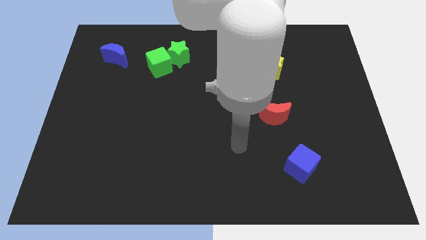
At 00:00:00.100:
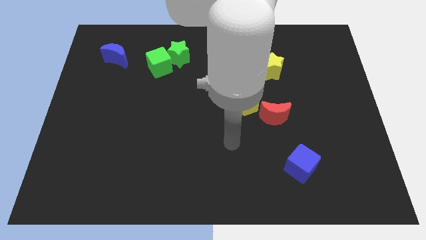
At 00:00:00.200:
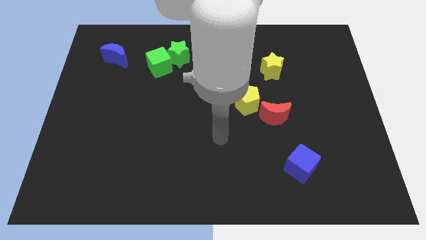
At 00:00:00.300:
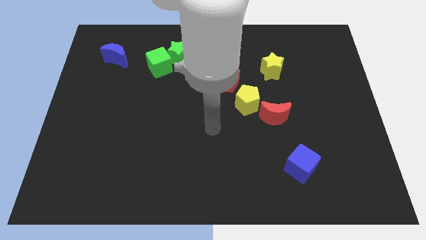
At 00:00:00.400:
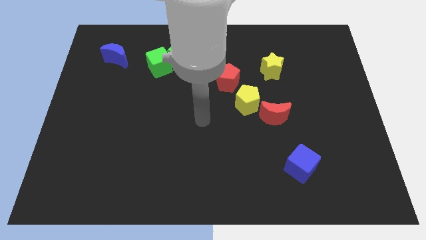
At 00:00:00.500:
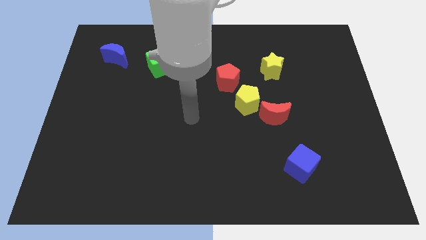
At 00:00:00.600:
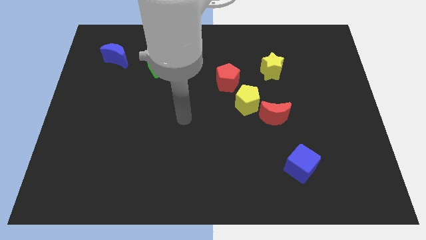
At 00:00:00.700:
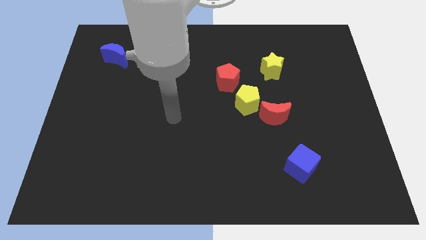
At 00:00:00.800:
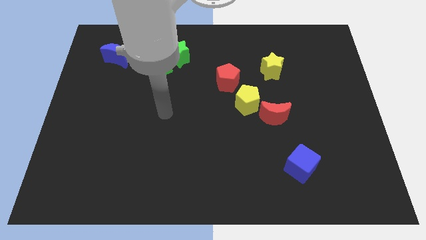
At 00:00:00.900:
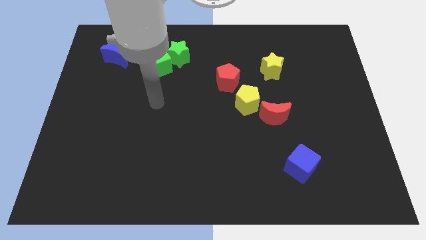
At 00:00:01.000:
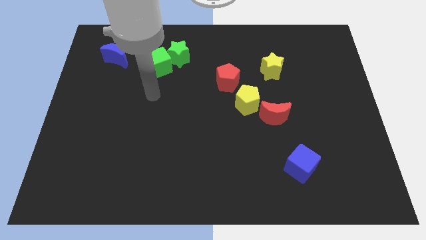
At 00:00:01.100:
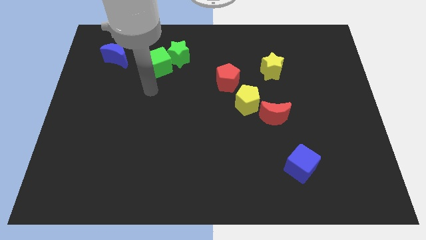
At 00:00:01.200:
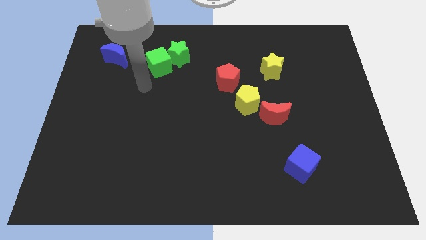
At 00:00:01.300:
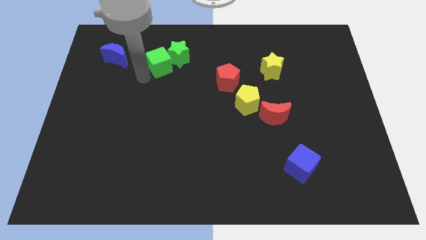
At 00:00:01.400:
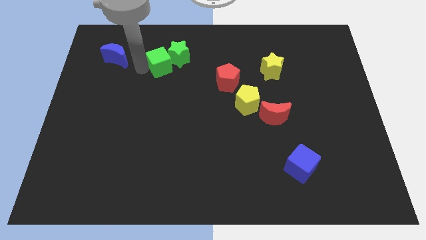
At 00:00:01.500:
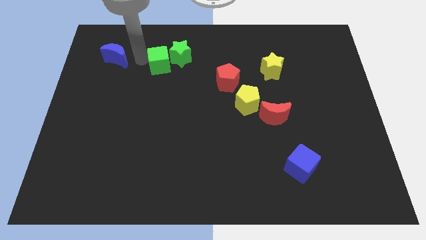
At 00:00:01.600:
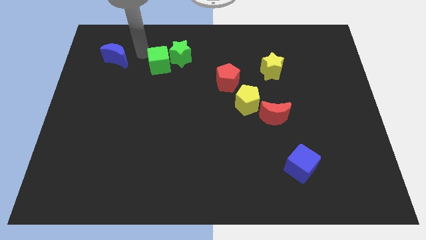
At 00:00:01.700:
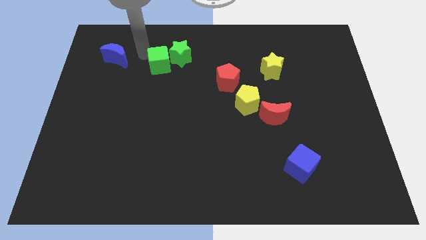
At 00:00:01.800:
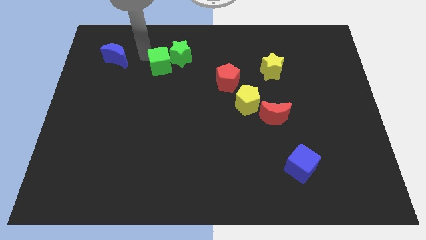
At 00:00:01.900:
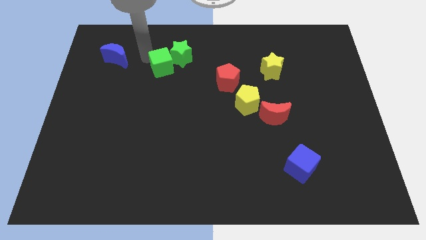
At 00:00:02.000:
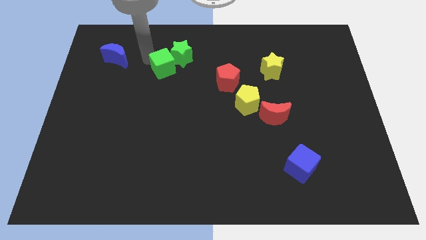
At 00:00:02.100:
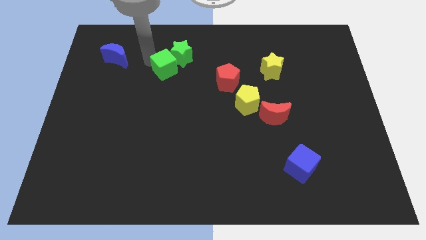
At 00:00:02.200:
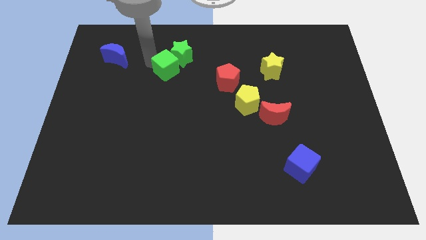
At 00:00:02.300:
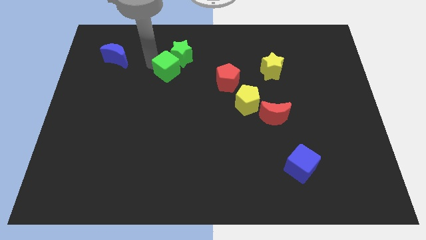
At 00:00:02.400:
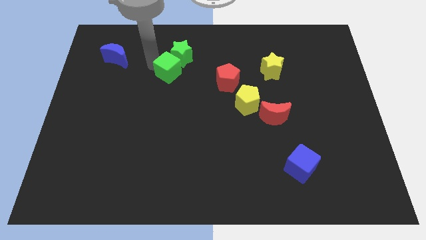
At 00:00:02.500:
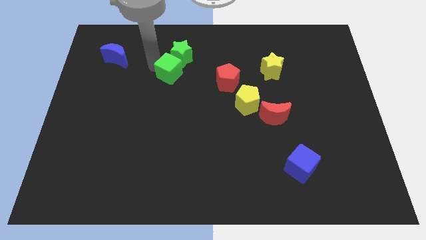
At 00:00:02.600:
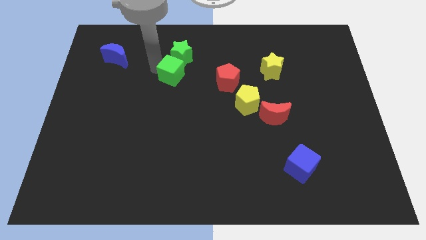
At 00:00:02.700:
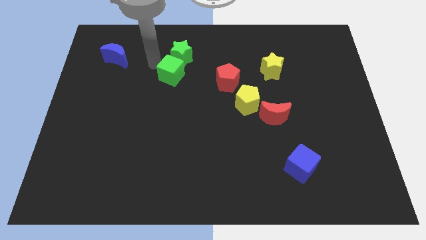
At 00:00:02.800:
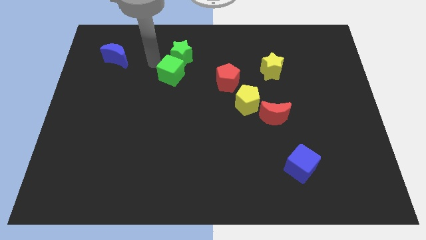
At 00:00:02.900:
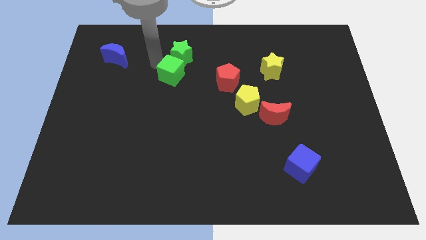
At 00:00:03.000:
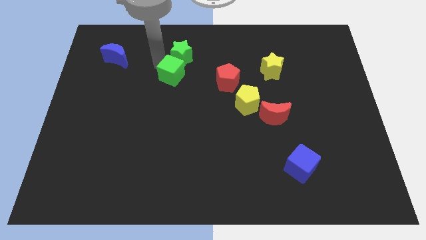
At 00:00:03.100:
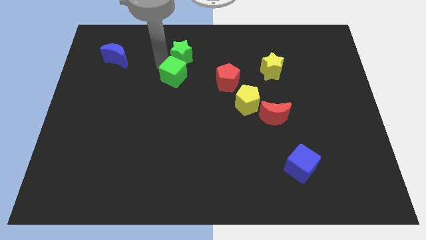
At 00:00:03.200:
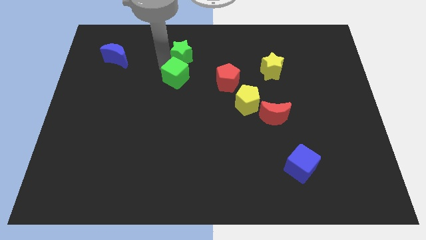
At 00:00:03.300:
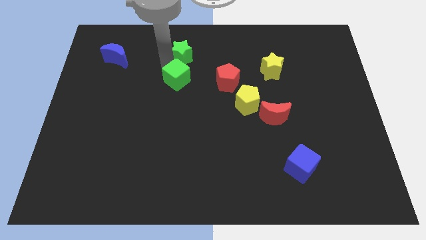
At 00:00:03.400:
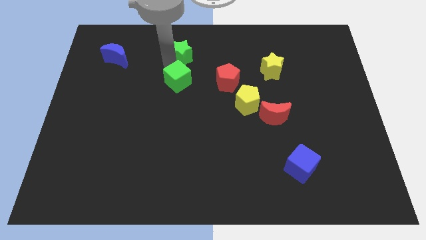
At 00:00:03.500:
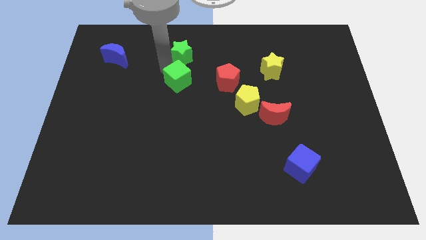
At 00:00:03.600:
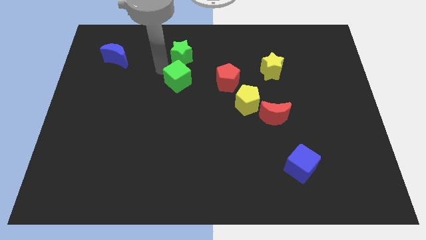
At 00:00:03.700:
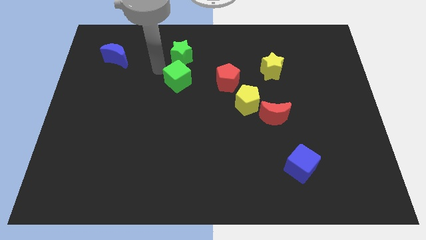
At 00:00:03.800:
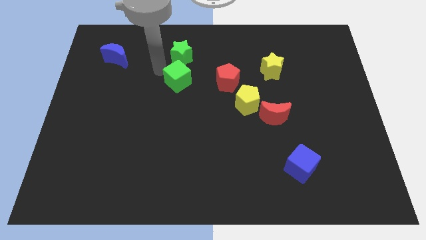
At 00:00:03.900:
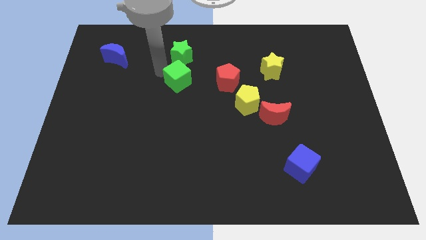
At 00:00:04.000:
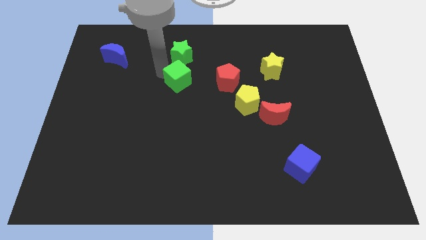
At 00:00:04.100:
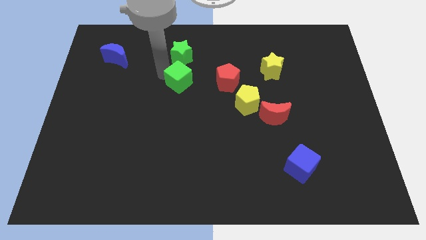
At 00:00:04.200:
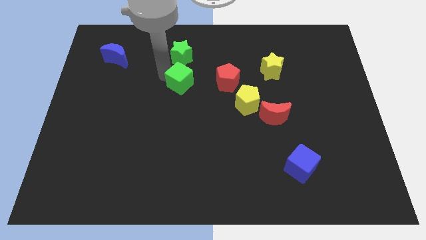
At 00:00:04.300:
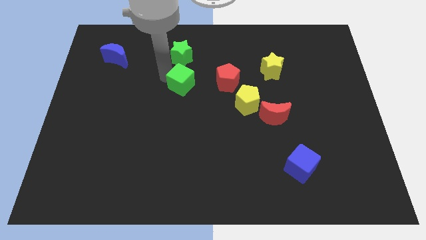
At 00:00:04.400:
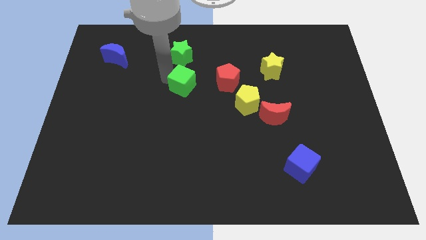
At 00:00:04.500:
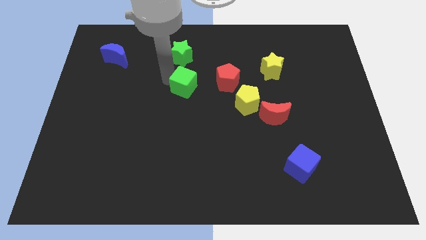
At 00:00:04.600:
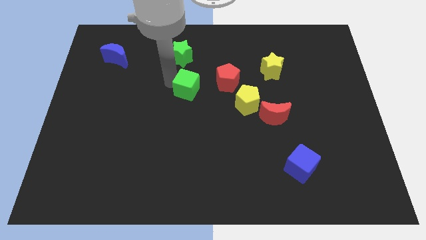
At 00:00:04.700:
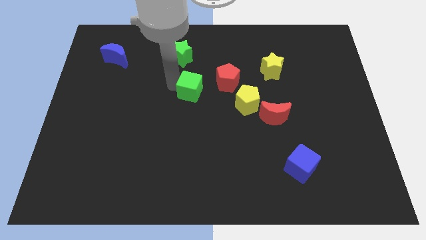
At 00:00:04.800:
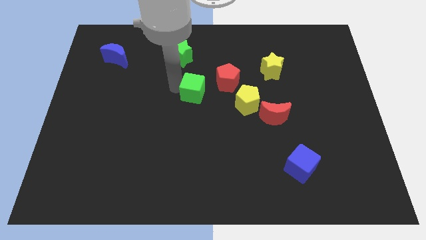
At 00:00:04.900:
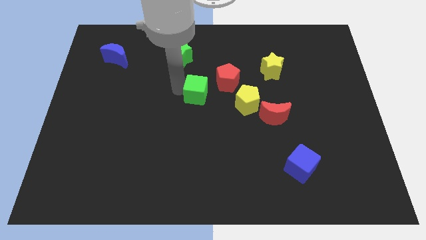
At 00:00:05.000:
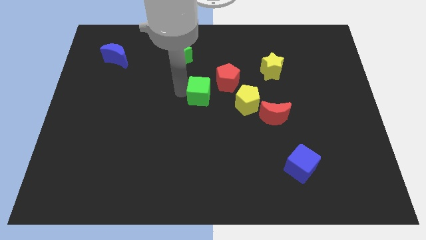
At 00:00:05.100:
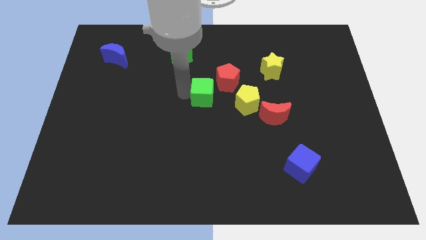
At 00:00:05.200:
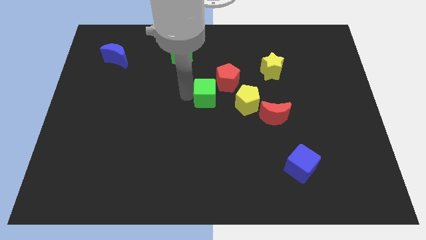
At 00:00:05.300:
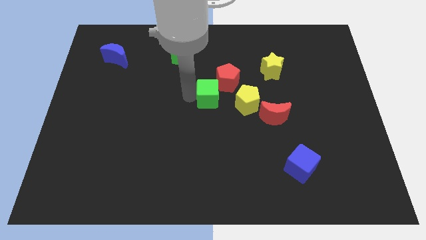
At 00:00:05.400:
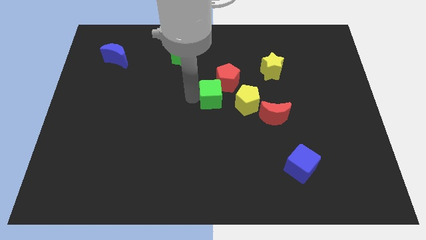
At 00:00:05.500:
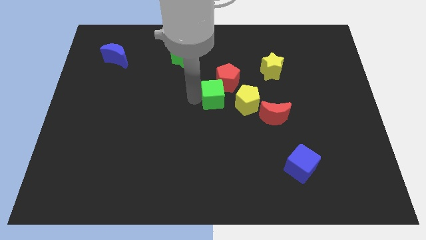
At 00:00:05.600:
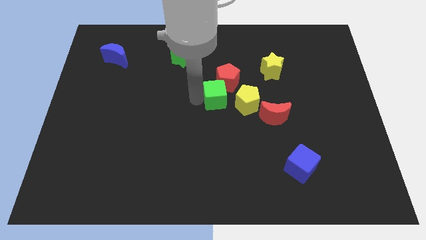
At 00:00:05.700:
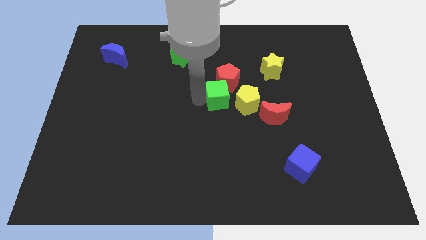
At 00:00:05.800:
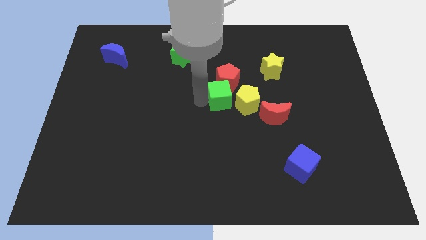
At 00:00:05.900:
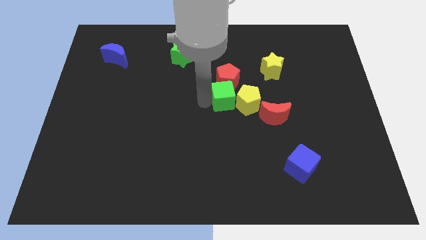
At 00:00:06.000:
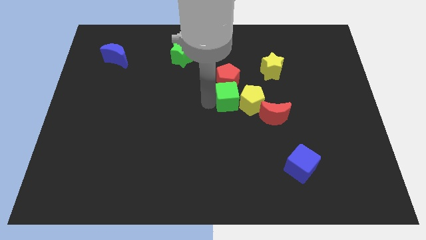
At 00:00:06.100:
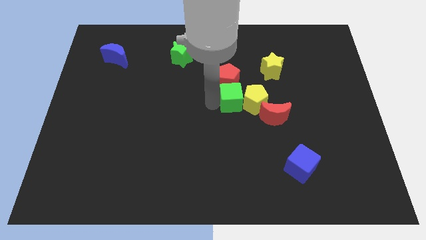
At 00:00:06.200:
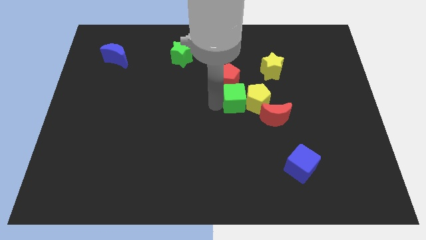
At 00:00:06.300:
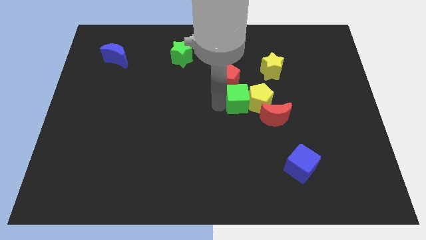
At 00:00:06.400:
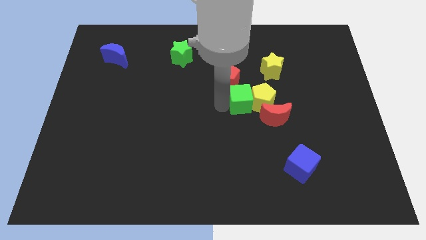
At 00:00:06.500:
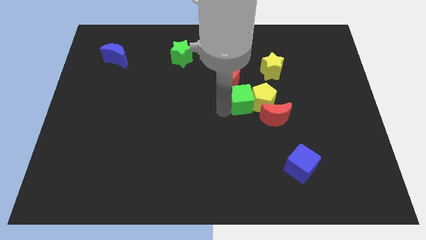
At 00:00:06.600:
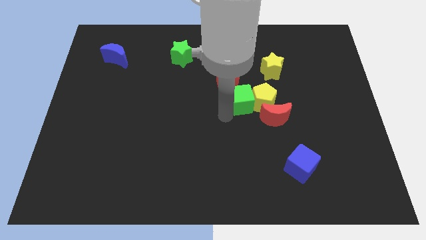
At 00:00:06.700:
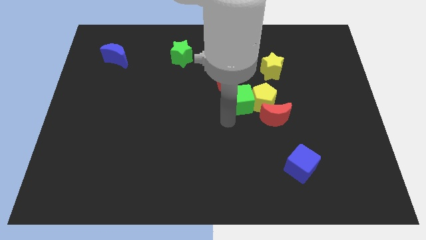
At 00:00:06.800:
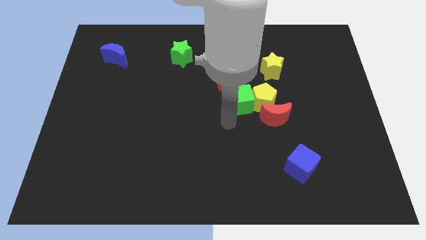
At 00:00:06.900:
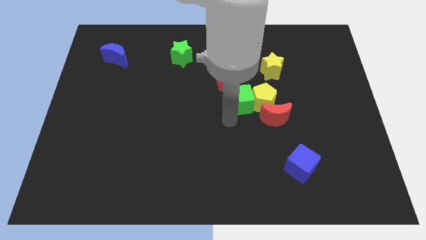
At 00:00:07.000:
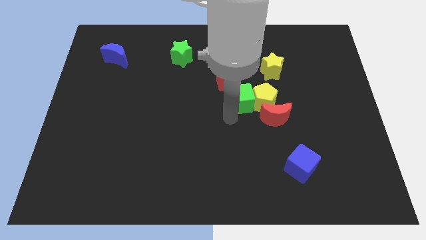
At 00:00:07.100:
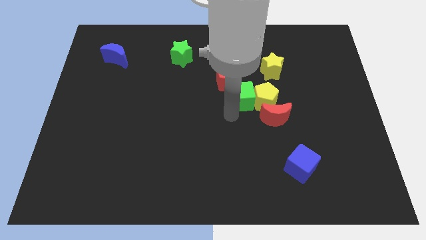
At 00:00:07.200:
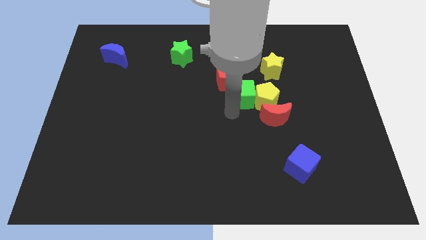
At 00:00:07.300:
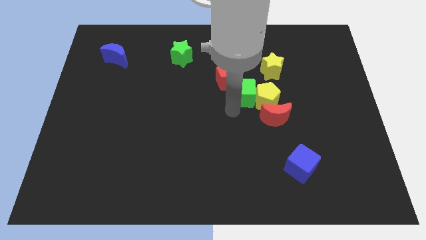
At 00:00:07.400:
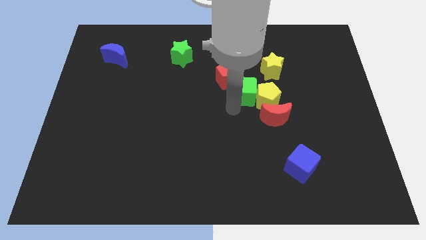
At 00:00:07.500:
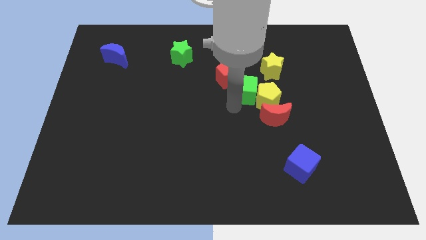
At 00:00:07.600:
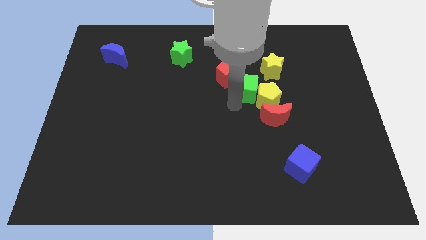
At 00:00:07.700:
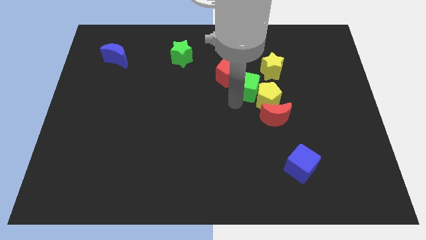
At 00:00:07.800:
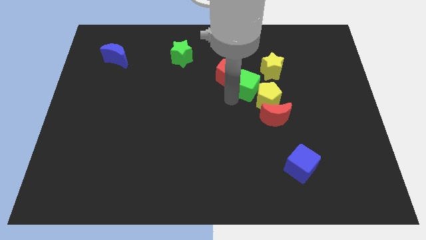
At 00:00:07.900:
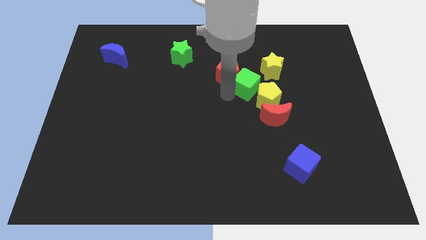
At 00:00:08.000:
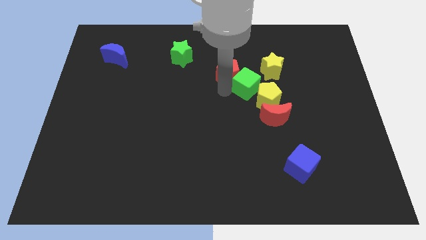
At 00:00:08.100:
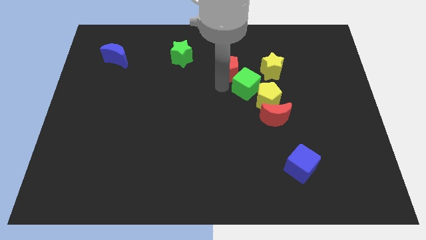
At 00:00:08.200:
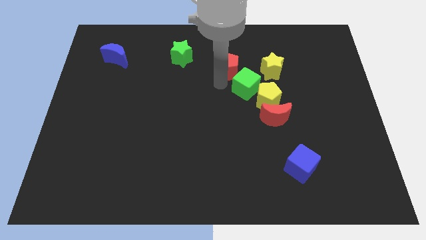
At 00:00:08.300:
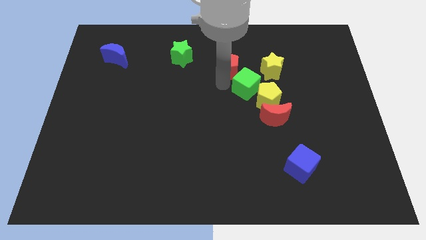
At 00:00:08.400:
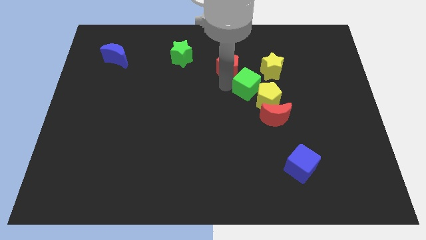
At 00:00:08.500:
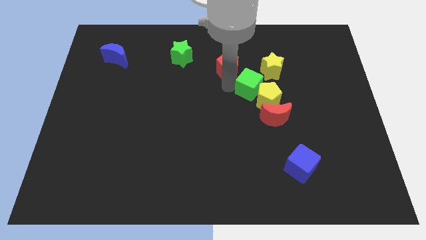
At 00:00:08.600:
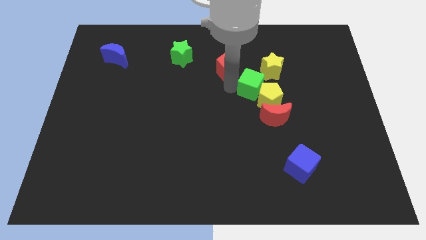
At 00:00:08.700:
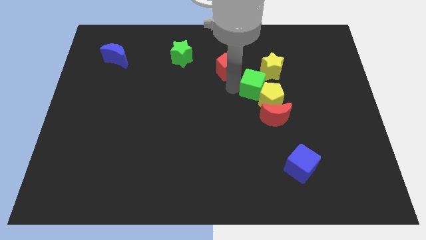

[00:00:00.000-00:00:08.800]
put the green cube to the bottom side of the yellow star
